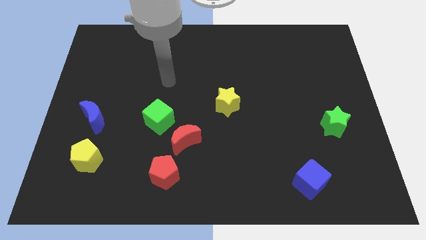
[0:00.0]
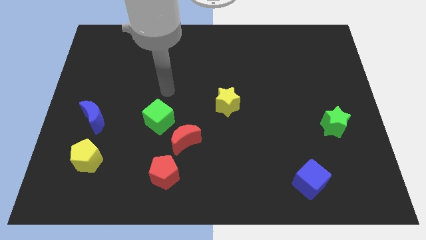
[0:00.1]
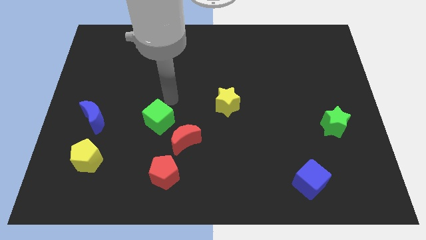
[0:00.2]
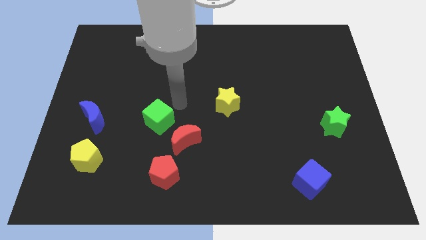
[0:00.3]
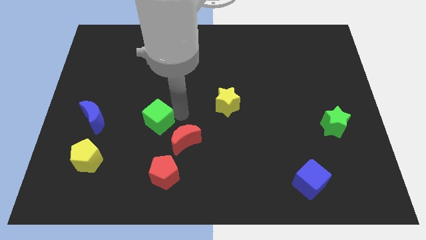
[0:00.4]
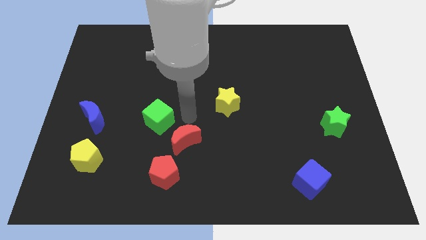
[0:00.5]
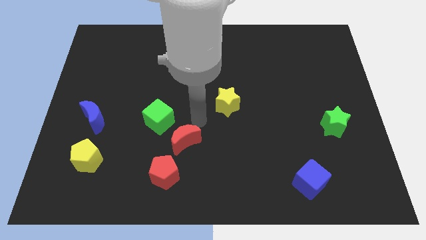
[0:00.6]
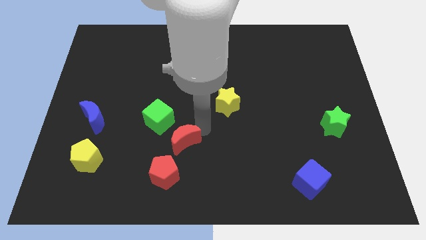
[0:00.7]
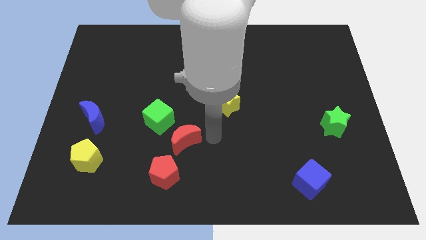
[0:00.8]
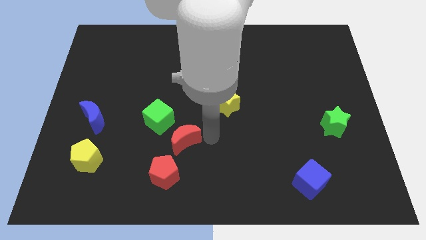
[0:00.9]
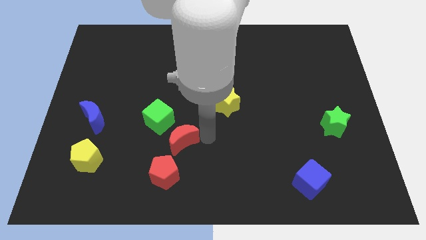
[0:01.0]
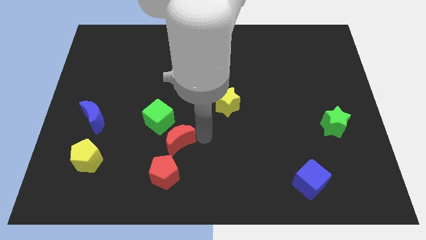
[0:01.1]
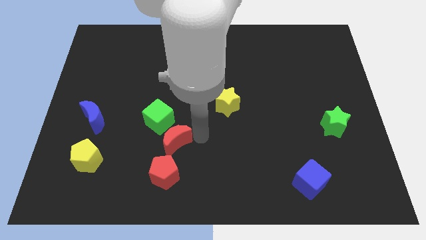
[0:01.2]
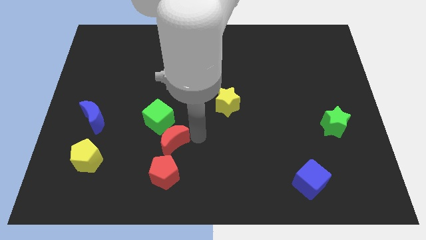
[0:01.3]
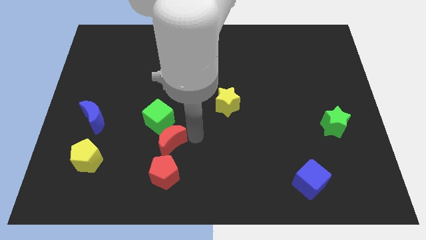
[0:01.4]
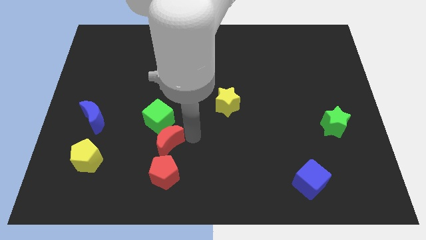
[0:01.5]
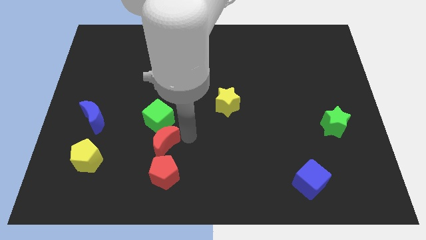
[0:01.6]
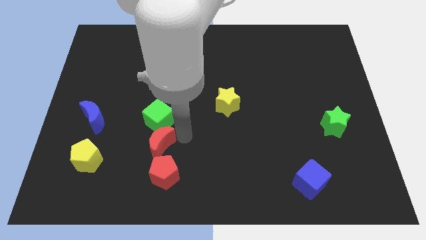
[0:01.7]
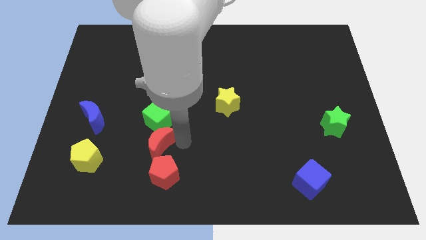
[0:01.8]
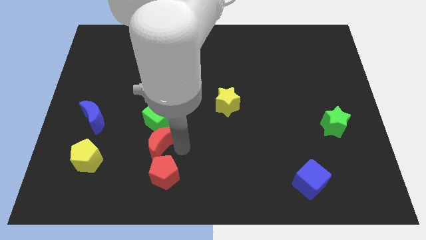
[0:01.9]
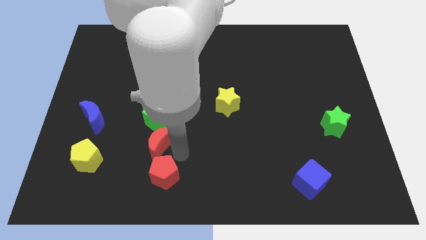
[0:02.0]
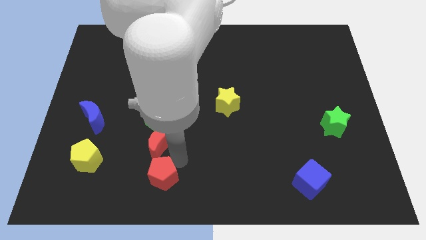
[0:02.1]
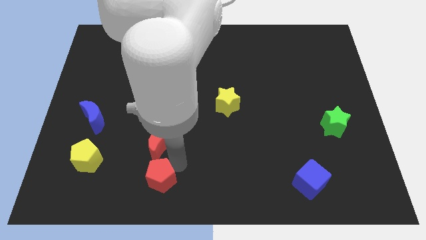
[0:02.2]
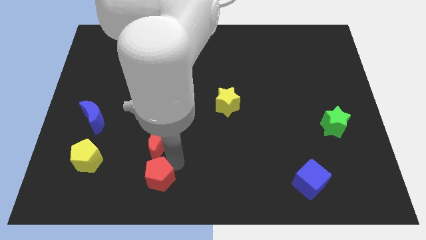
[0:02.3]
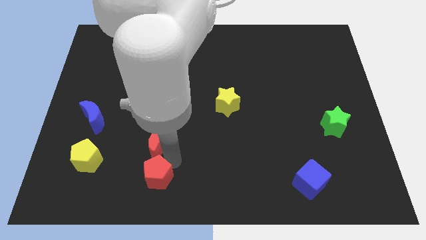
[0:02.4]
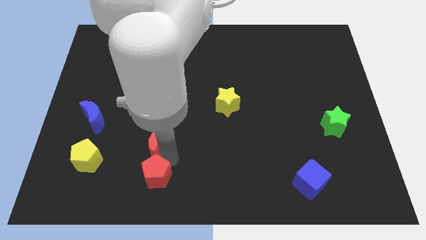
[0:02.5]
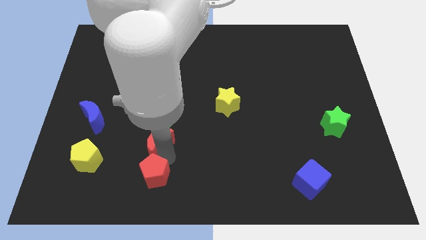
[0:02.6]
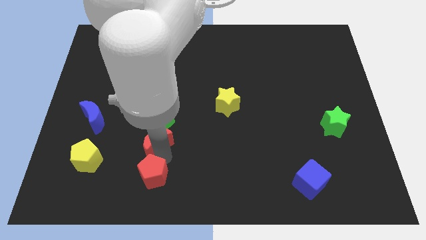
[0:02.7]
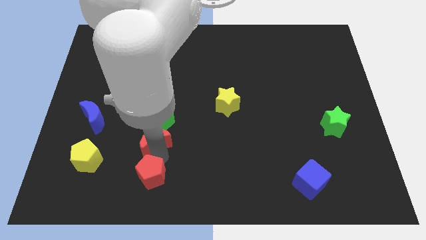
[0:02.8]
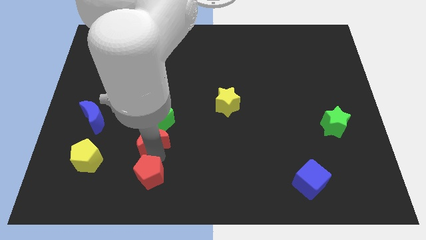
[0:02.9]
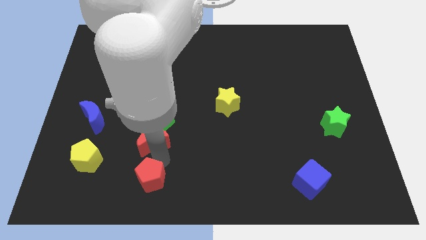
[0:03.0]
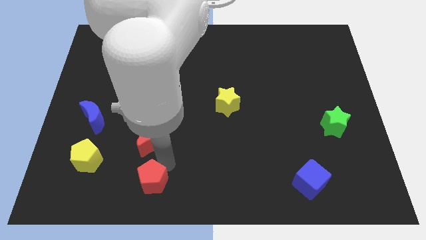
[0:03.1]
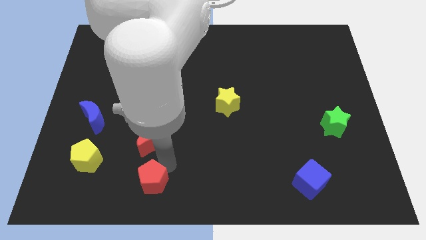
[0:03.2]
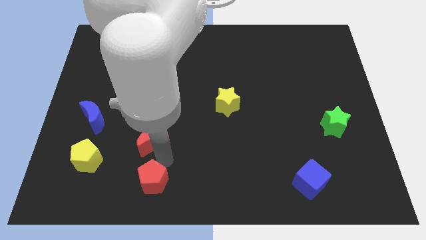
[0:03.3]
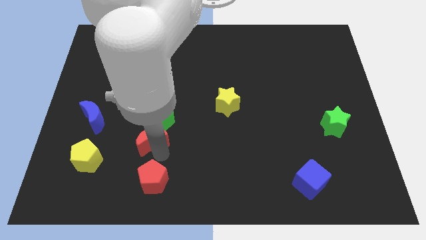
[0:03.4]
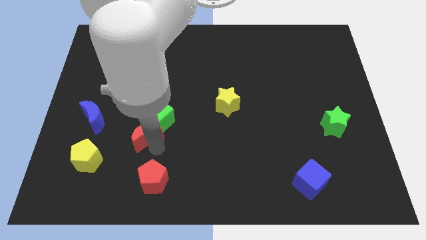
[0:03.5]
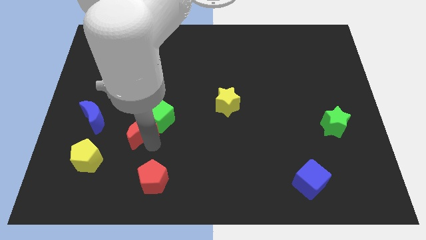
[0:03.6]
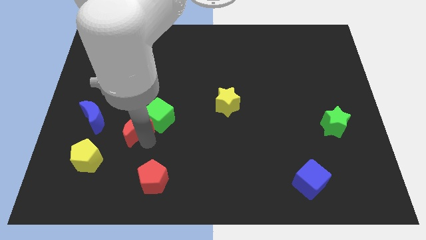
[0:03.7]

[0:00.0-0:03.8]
slide the red moon up and then left slightly

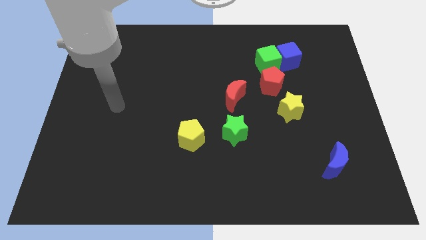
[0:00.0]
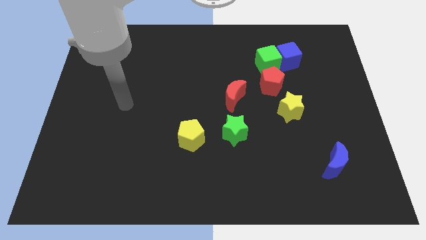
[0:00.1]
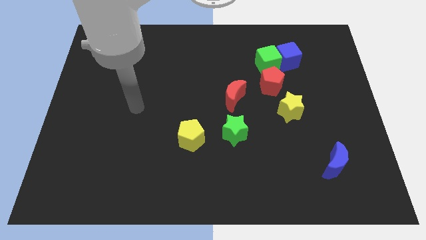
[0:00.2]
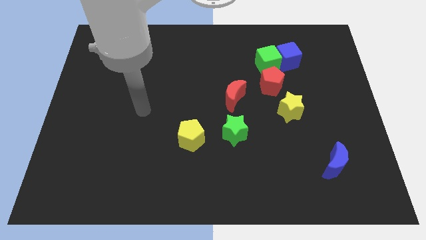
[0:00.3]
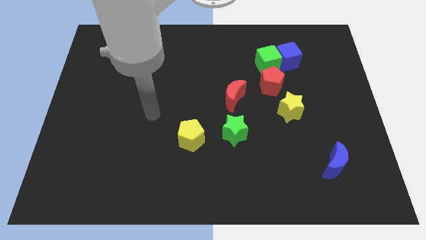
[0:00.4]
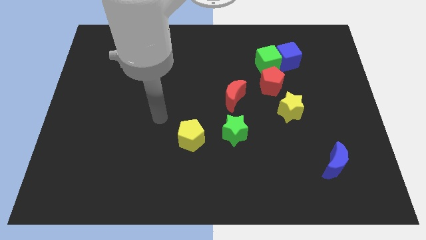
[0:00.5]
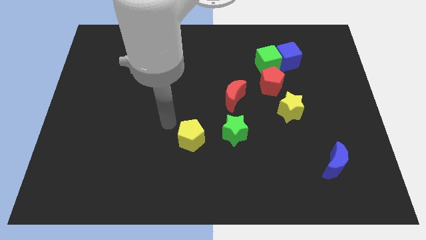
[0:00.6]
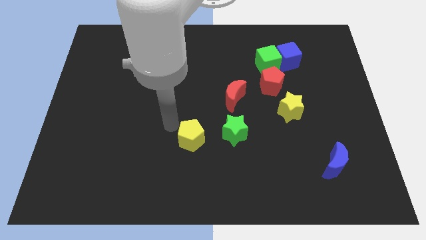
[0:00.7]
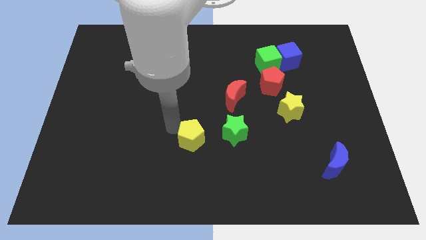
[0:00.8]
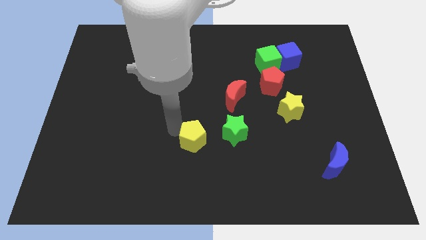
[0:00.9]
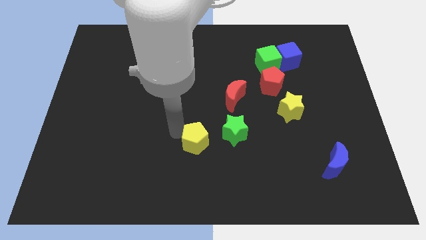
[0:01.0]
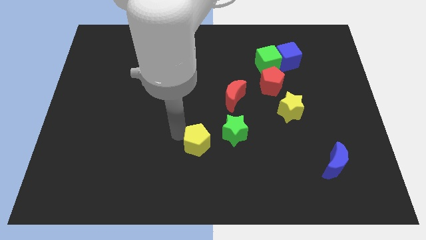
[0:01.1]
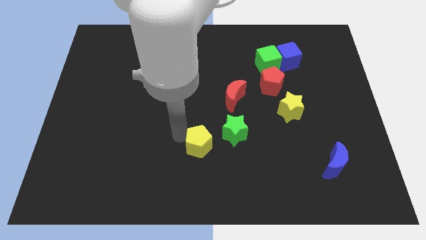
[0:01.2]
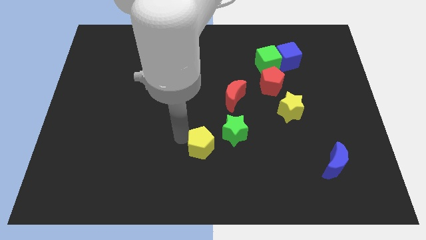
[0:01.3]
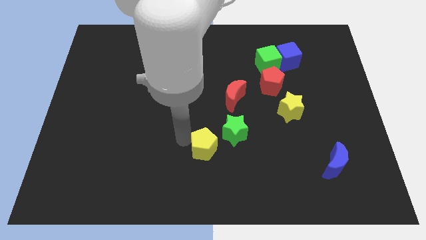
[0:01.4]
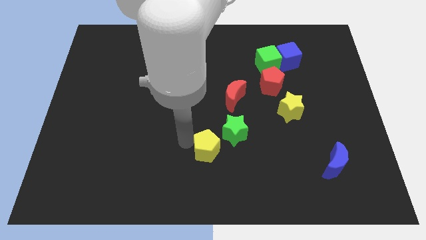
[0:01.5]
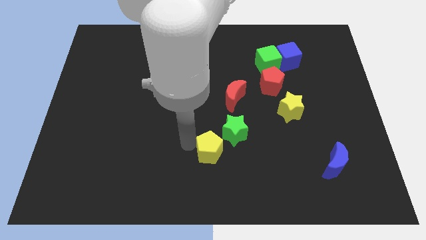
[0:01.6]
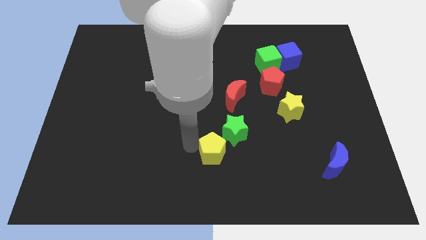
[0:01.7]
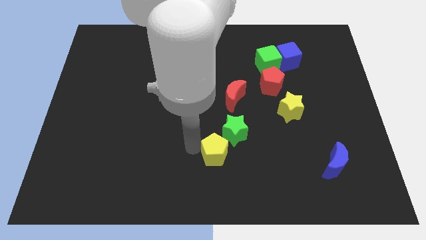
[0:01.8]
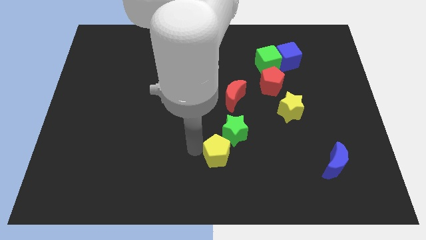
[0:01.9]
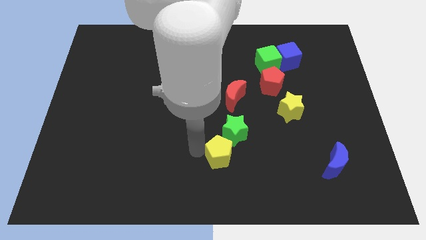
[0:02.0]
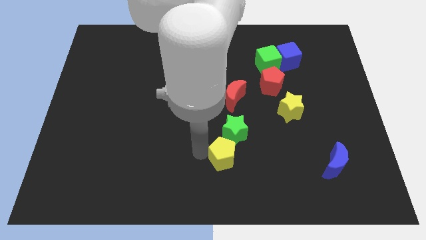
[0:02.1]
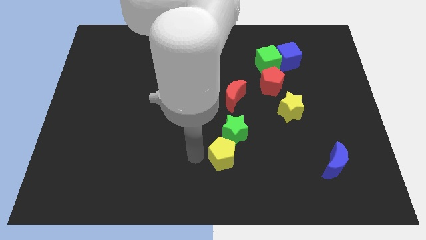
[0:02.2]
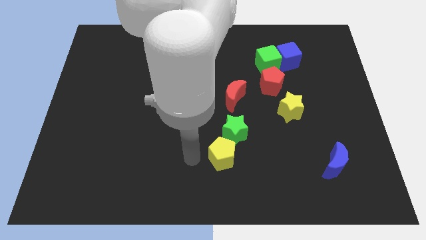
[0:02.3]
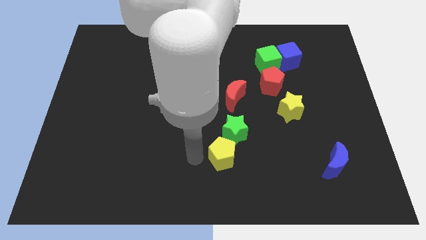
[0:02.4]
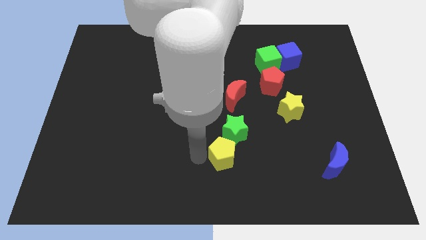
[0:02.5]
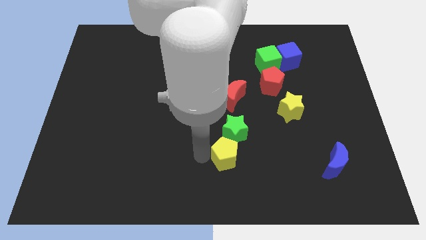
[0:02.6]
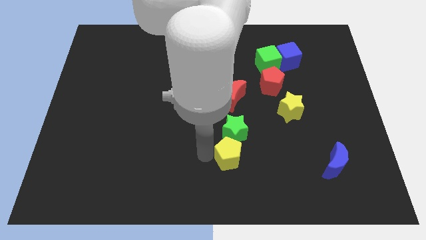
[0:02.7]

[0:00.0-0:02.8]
move the yellow pentagon a little bit right

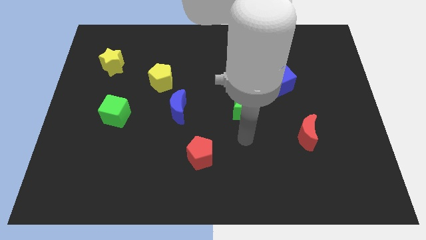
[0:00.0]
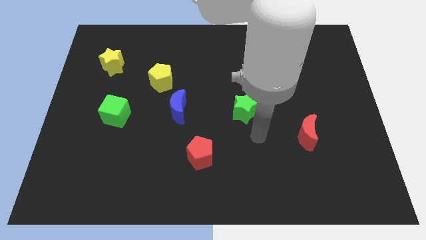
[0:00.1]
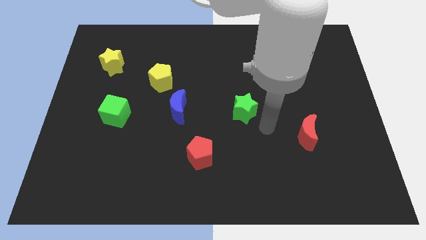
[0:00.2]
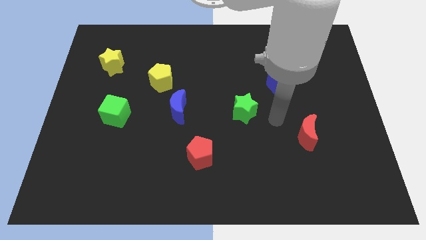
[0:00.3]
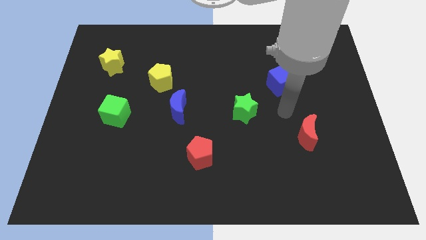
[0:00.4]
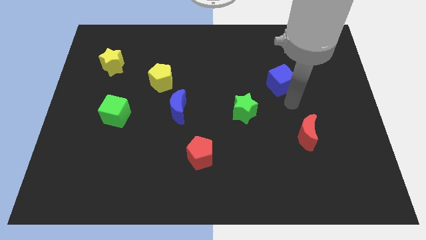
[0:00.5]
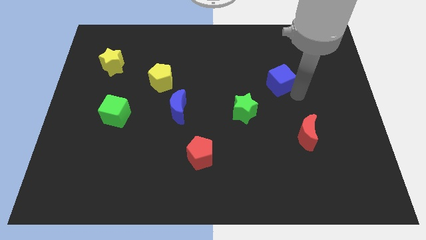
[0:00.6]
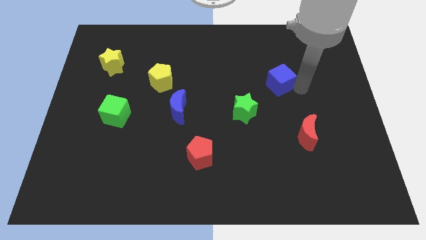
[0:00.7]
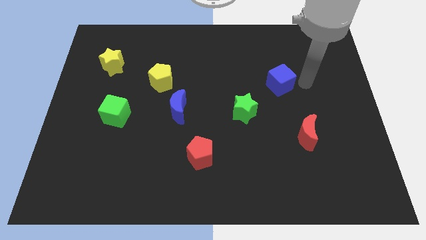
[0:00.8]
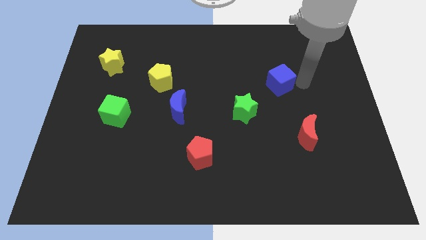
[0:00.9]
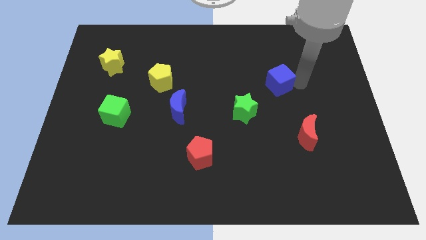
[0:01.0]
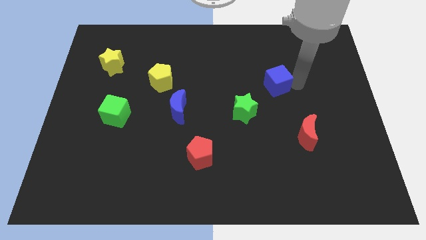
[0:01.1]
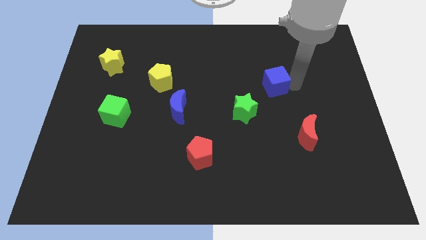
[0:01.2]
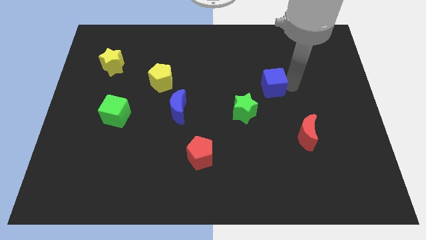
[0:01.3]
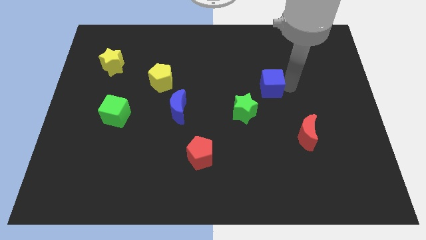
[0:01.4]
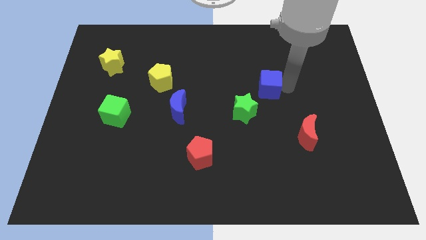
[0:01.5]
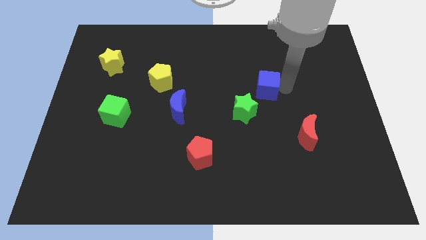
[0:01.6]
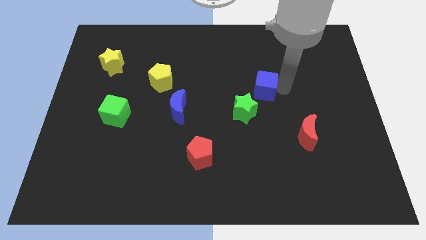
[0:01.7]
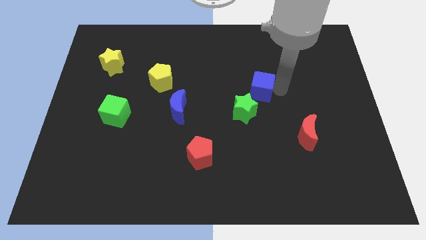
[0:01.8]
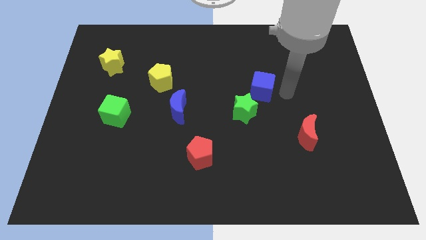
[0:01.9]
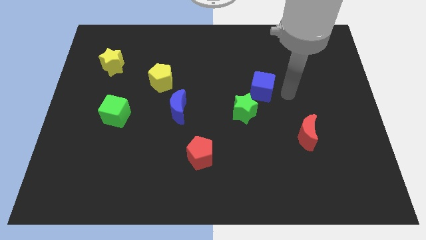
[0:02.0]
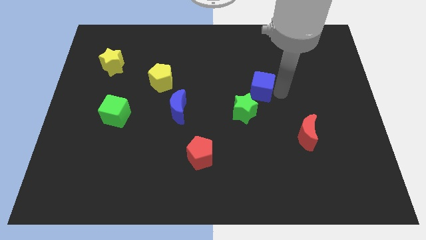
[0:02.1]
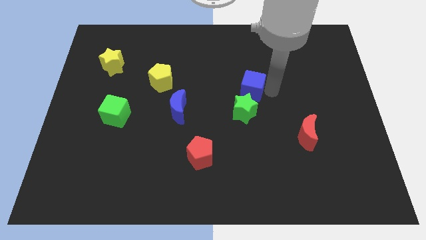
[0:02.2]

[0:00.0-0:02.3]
slide the blue cube left a little
